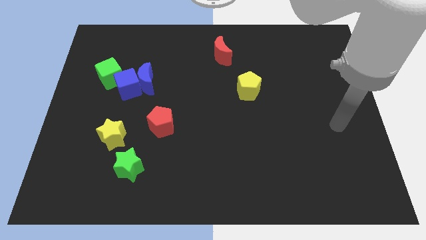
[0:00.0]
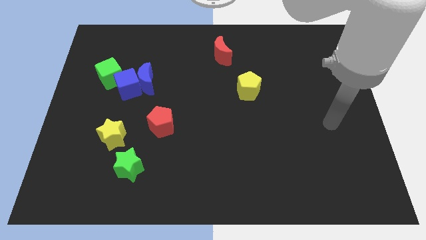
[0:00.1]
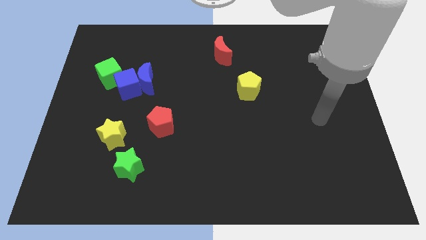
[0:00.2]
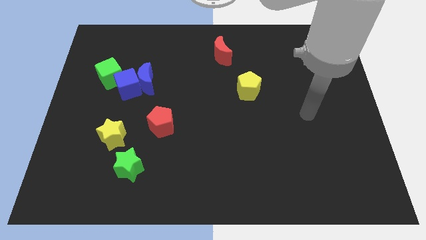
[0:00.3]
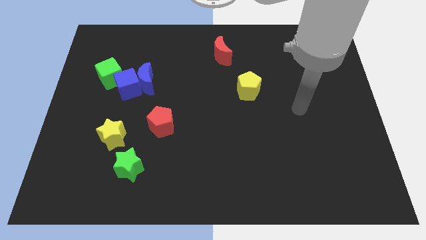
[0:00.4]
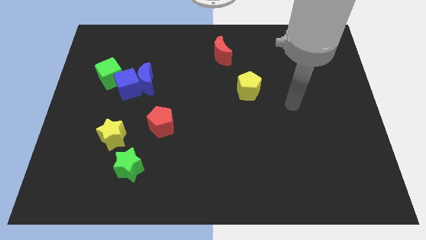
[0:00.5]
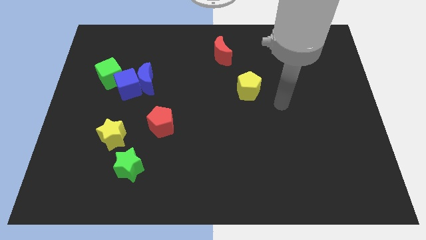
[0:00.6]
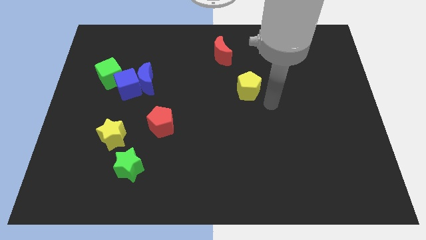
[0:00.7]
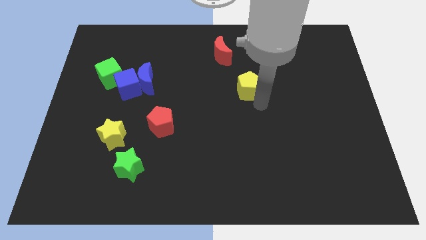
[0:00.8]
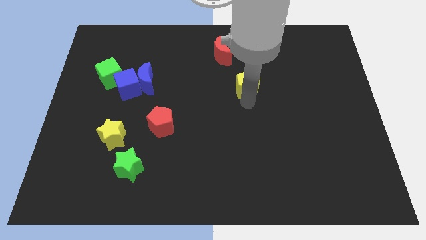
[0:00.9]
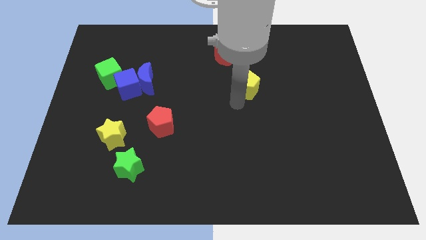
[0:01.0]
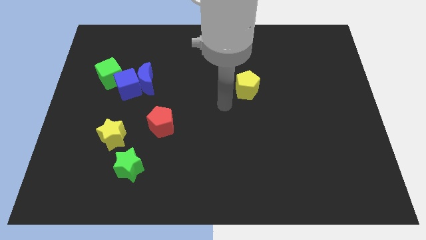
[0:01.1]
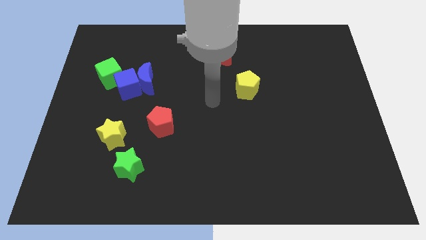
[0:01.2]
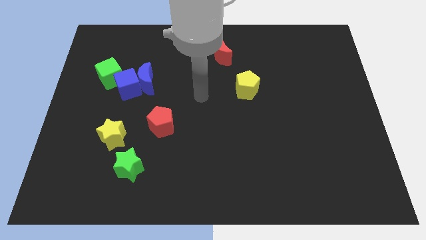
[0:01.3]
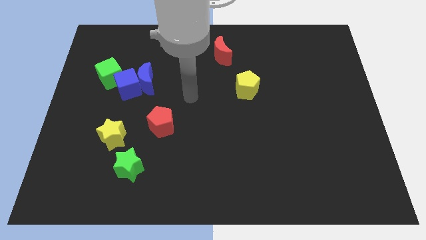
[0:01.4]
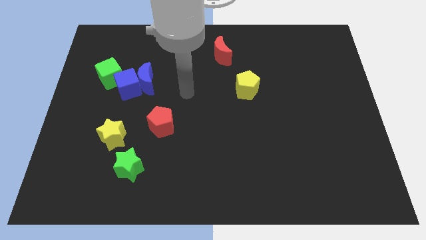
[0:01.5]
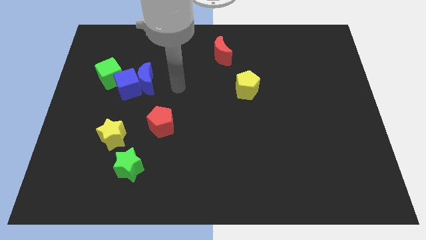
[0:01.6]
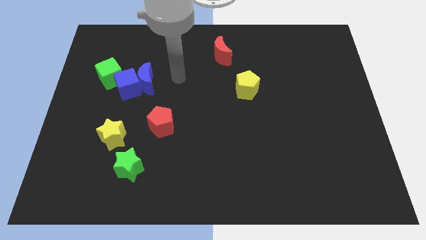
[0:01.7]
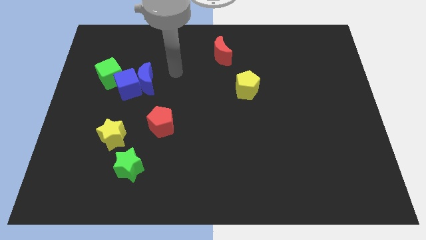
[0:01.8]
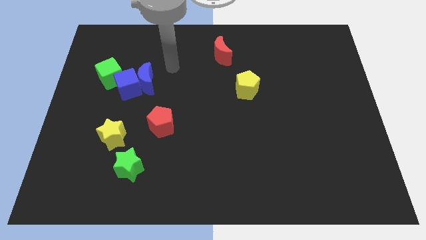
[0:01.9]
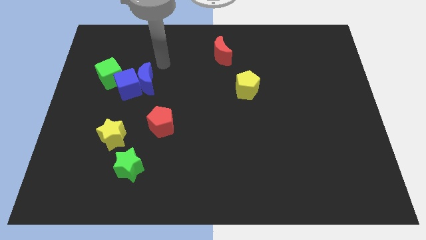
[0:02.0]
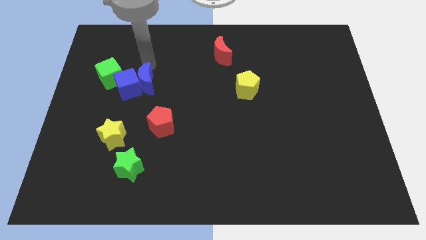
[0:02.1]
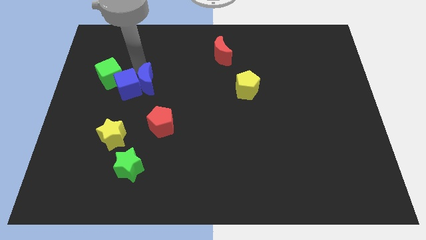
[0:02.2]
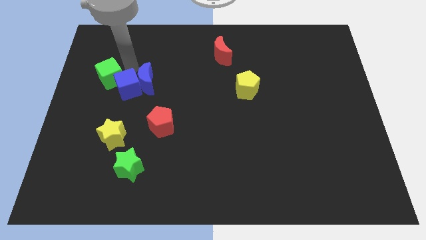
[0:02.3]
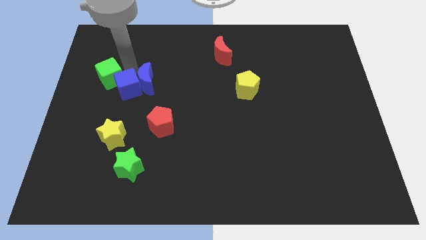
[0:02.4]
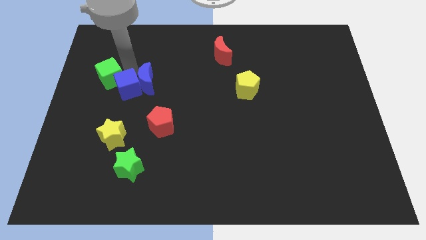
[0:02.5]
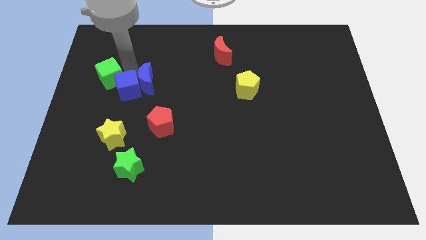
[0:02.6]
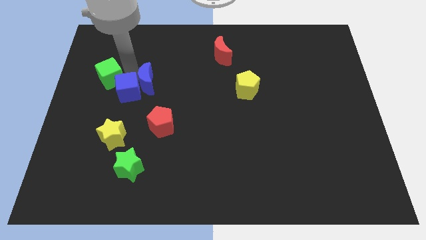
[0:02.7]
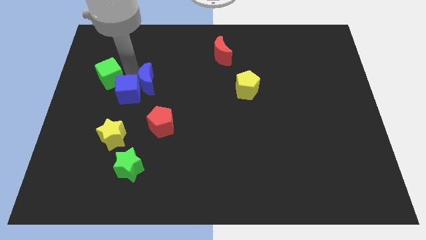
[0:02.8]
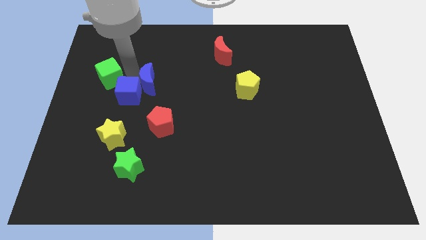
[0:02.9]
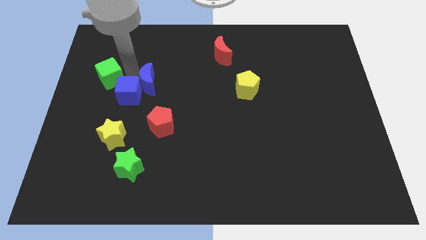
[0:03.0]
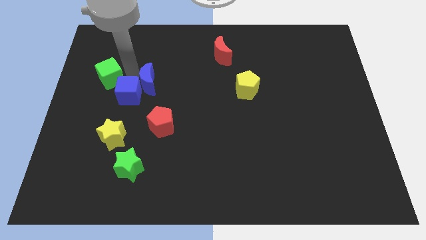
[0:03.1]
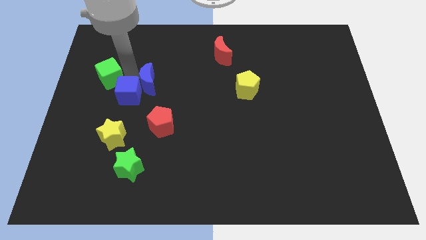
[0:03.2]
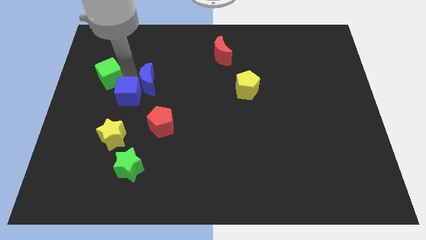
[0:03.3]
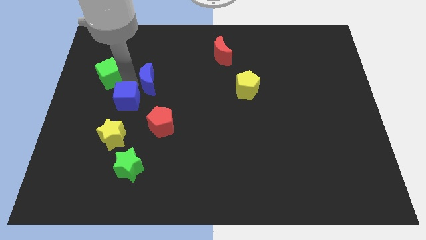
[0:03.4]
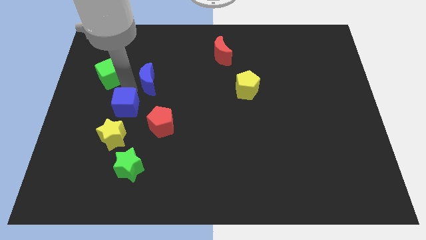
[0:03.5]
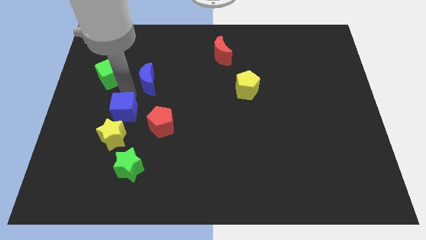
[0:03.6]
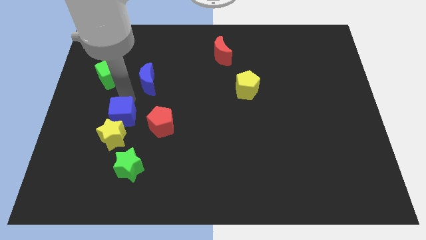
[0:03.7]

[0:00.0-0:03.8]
pull the blue cube apart from the blue moon and green cube

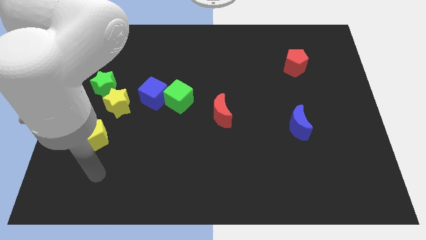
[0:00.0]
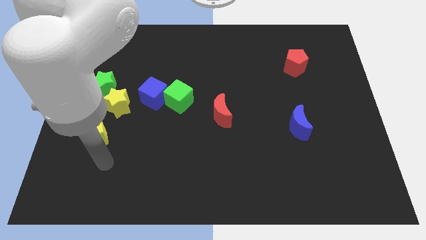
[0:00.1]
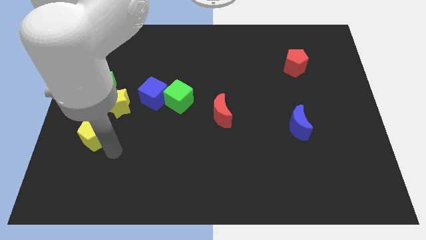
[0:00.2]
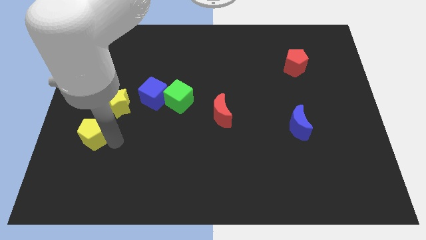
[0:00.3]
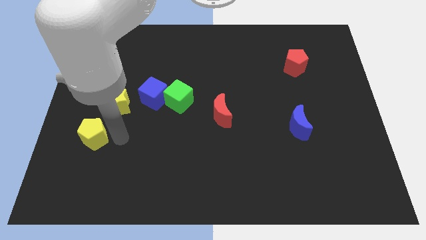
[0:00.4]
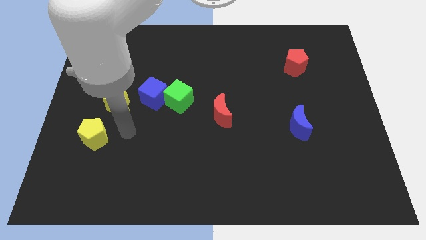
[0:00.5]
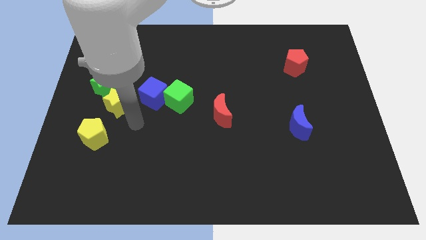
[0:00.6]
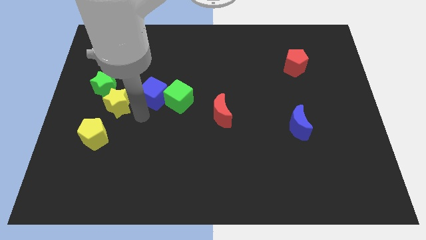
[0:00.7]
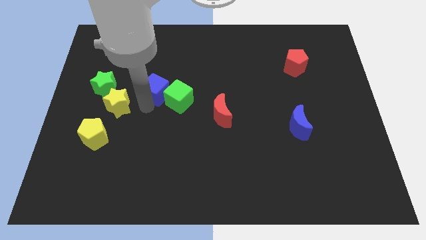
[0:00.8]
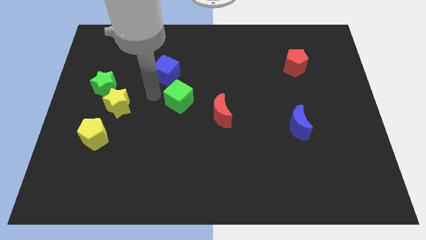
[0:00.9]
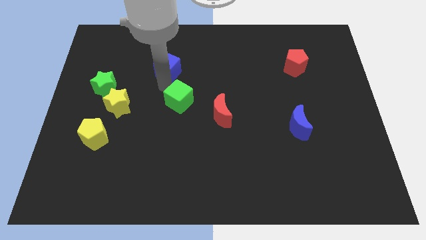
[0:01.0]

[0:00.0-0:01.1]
pull the green cube apart from the blue cube

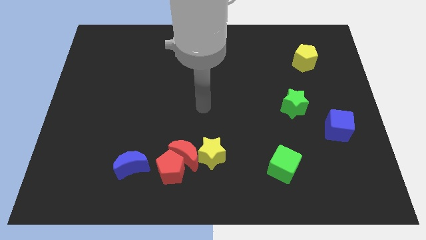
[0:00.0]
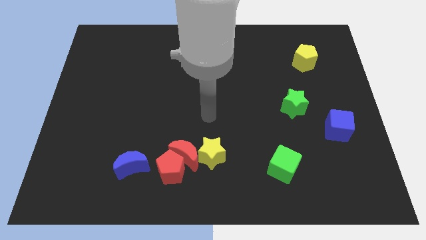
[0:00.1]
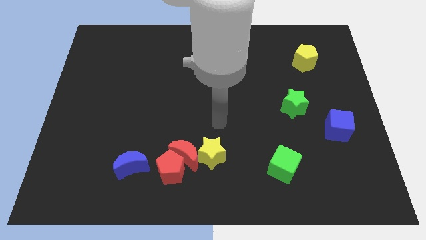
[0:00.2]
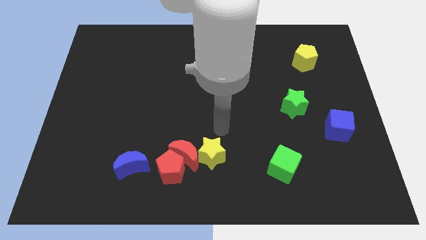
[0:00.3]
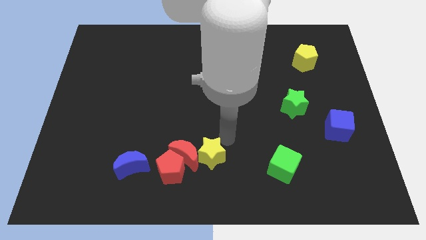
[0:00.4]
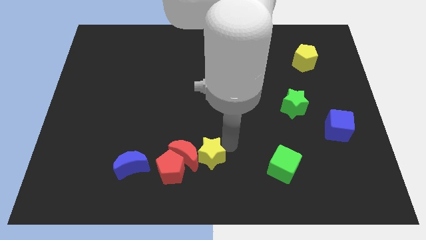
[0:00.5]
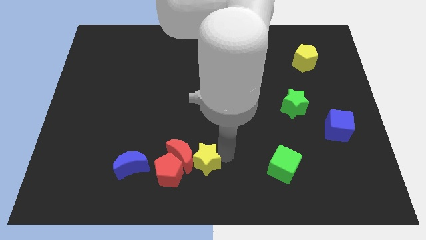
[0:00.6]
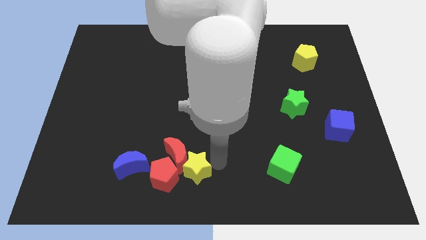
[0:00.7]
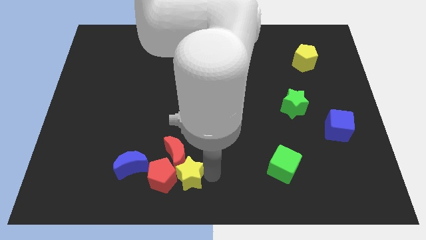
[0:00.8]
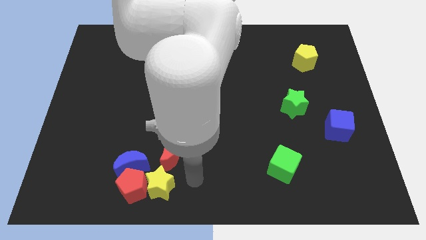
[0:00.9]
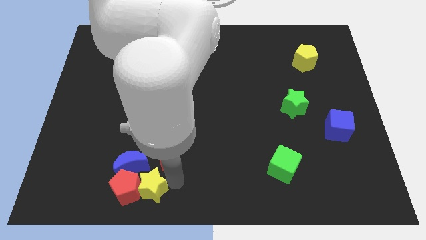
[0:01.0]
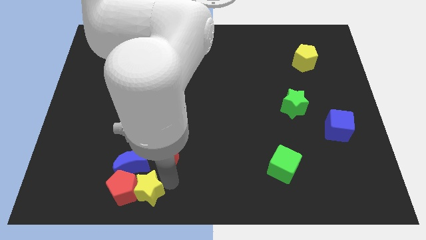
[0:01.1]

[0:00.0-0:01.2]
move the red moon away from the red pentagon and yellow star

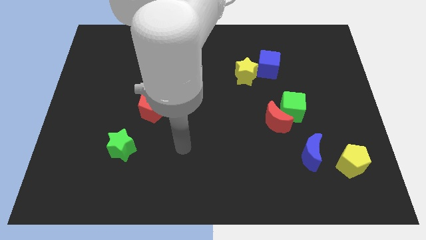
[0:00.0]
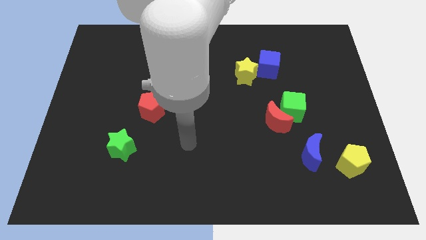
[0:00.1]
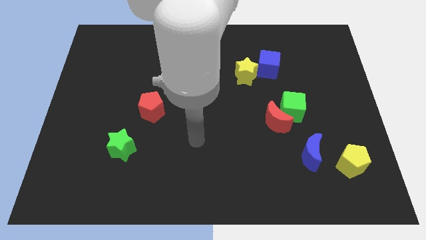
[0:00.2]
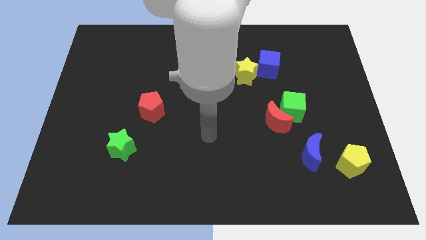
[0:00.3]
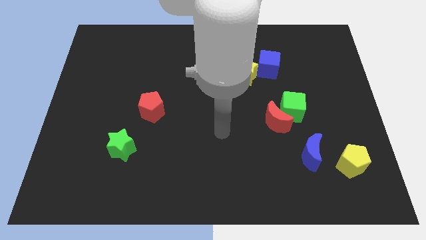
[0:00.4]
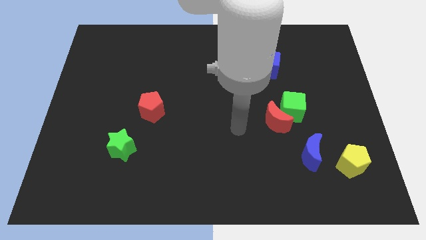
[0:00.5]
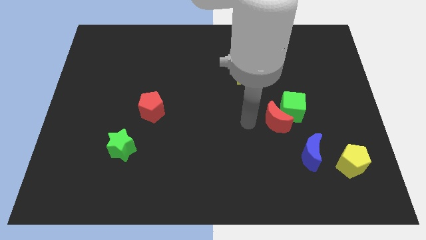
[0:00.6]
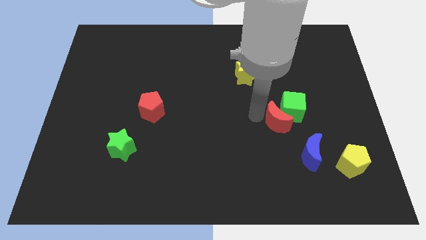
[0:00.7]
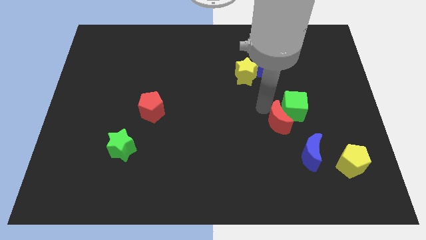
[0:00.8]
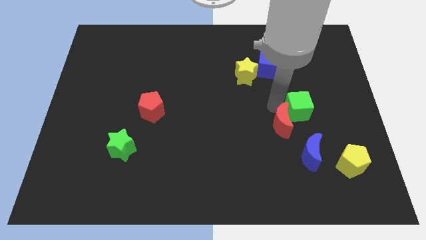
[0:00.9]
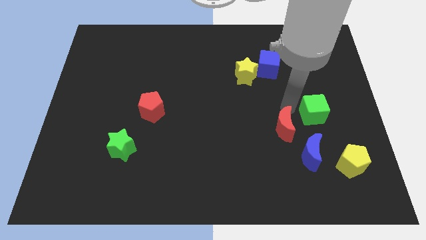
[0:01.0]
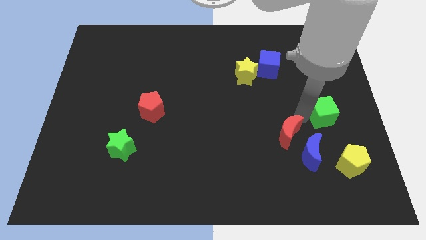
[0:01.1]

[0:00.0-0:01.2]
separate the red moon from the green cube

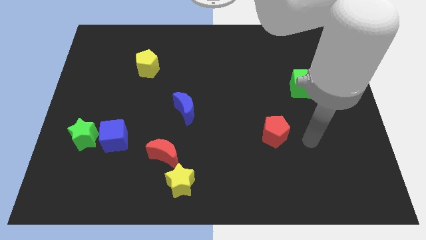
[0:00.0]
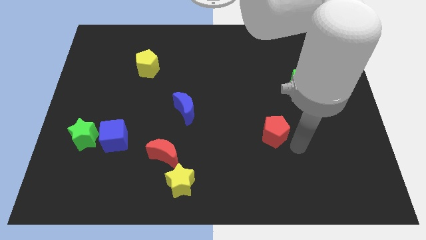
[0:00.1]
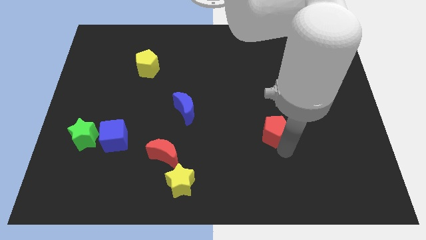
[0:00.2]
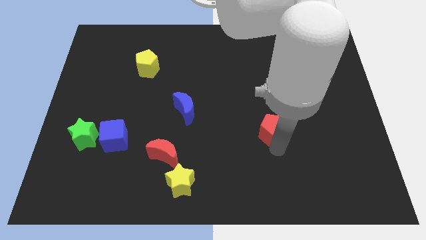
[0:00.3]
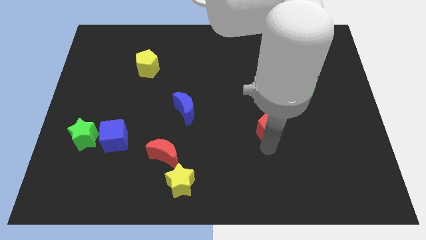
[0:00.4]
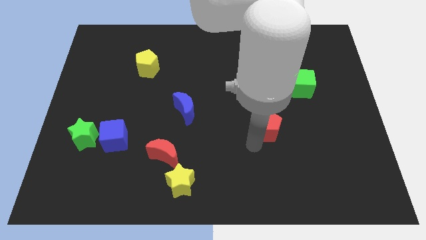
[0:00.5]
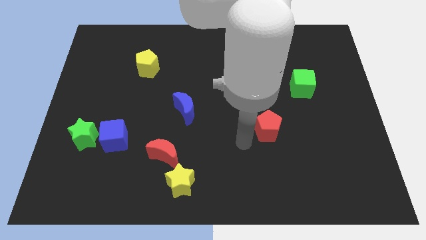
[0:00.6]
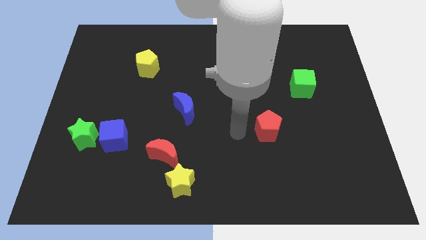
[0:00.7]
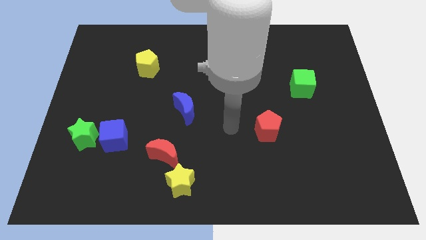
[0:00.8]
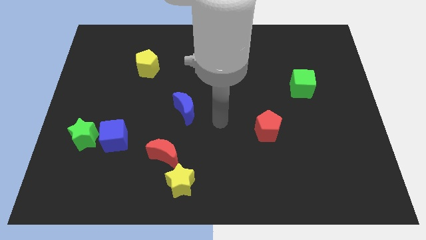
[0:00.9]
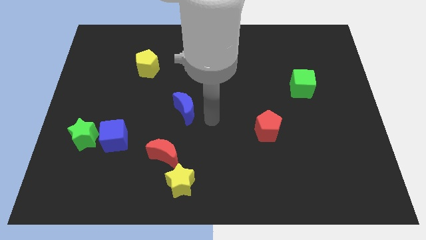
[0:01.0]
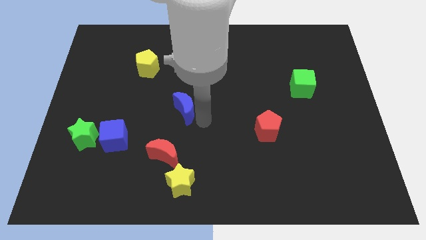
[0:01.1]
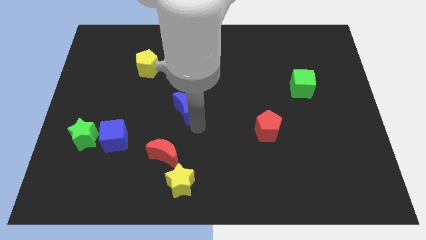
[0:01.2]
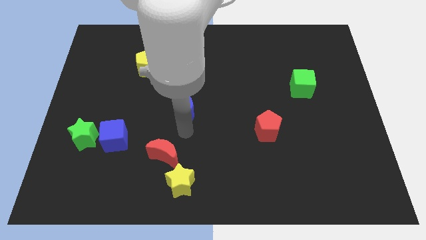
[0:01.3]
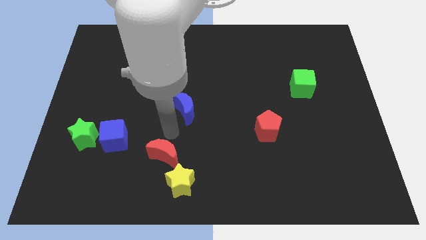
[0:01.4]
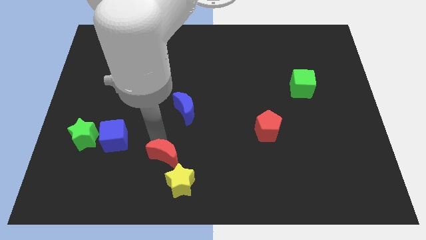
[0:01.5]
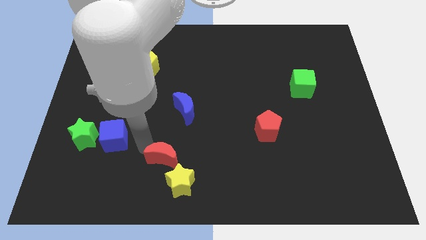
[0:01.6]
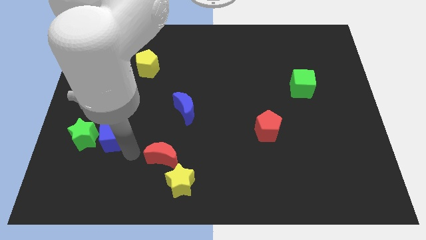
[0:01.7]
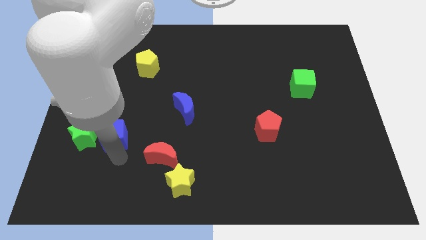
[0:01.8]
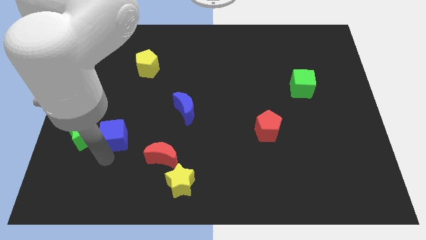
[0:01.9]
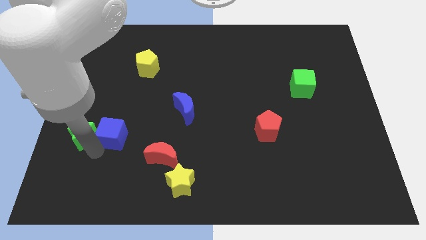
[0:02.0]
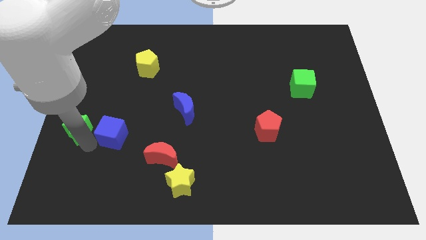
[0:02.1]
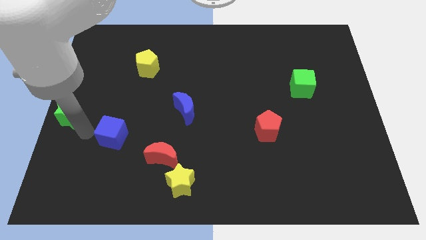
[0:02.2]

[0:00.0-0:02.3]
move the blue cube away from the green star
